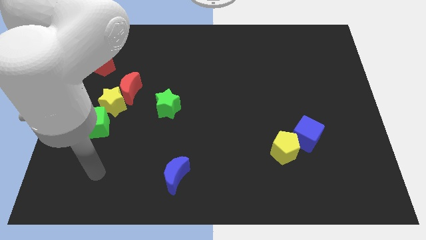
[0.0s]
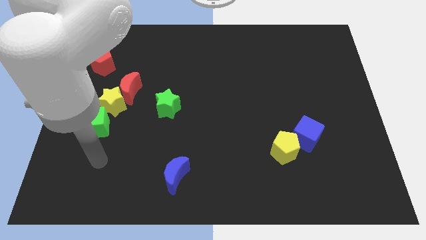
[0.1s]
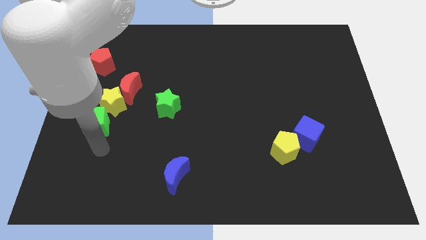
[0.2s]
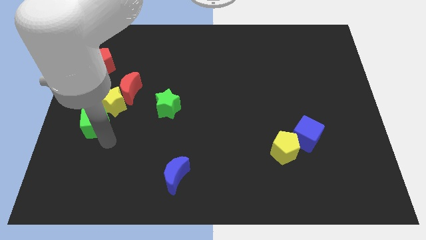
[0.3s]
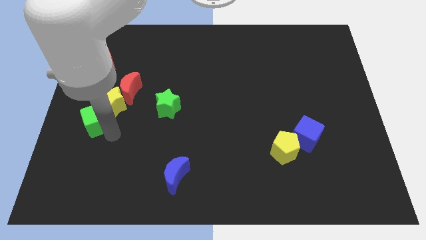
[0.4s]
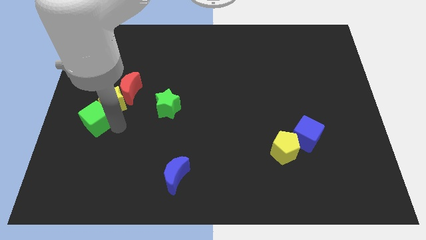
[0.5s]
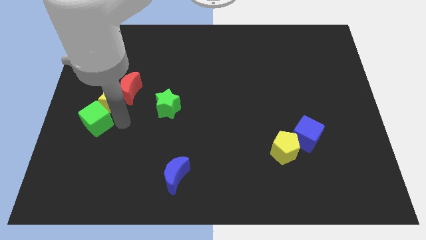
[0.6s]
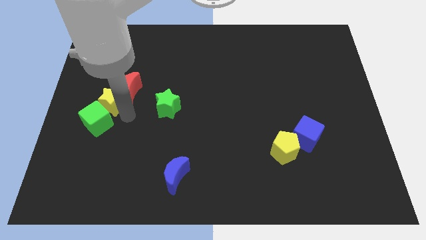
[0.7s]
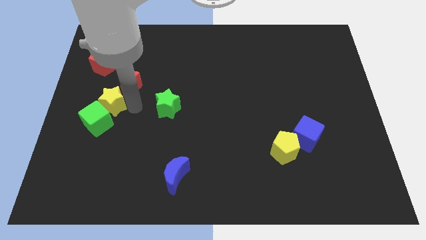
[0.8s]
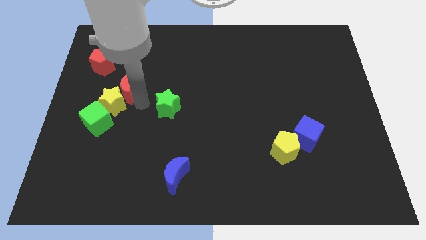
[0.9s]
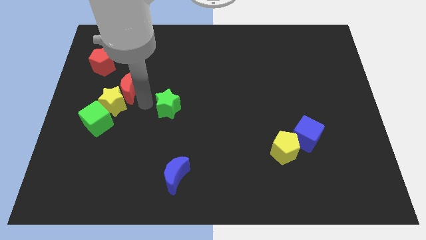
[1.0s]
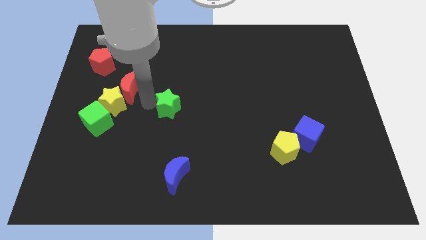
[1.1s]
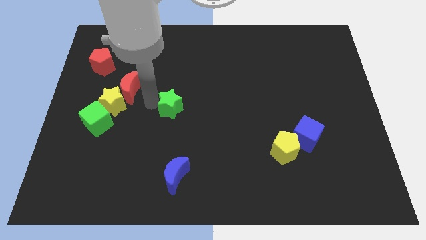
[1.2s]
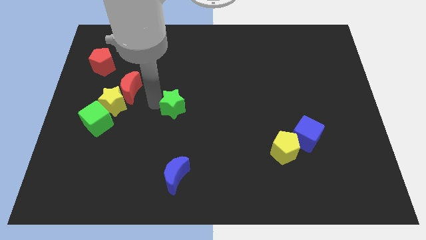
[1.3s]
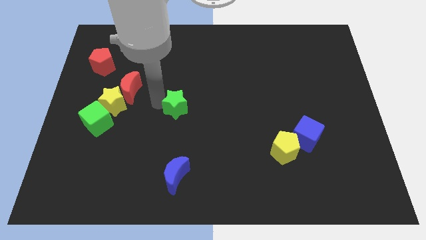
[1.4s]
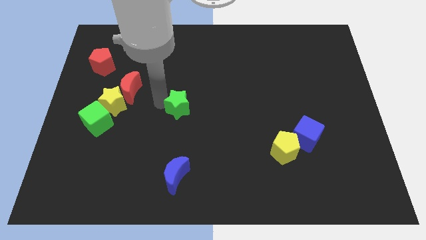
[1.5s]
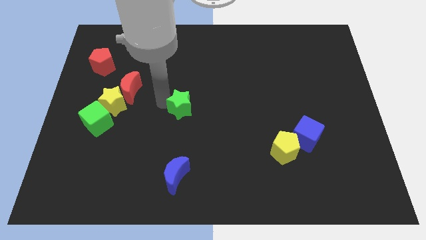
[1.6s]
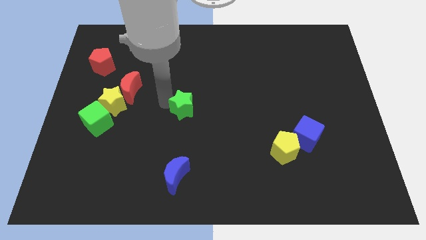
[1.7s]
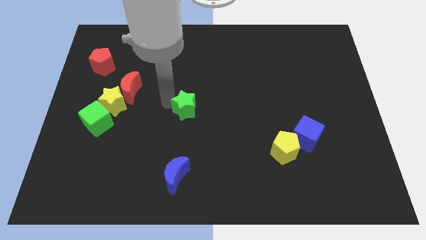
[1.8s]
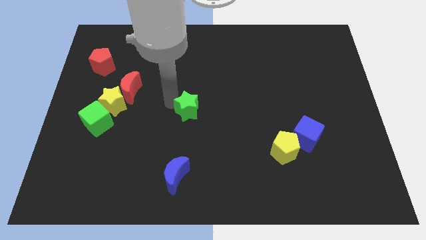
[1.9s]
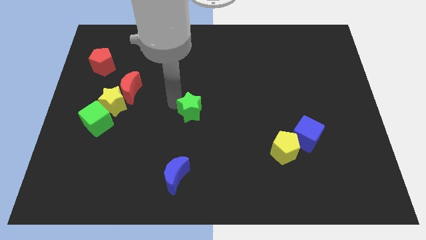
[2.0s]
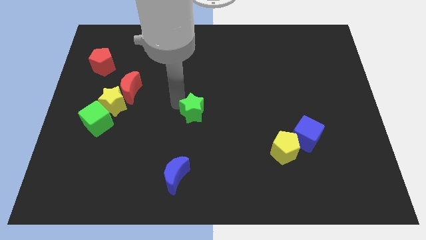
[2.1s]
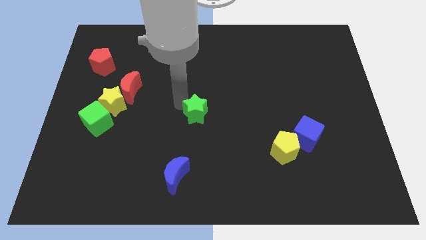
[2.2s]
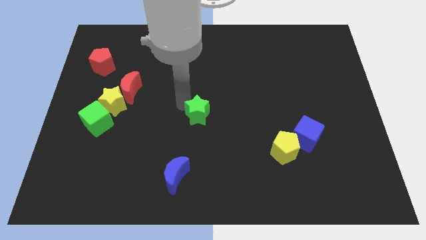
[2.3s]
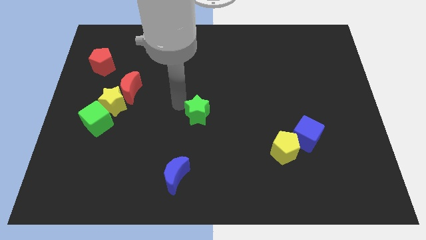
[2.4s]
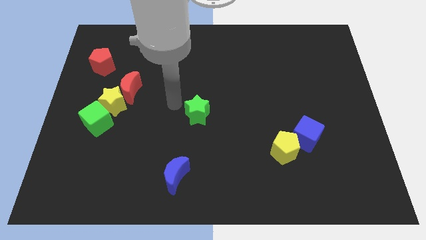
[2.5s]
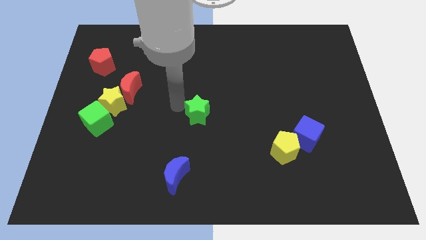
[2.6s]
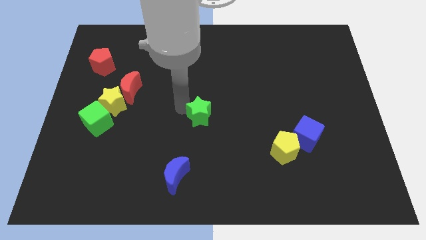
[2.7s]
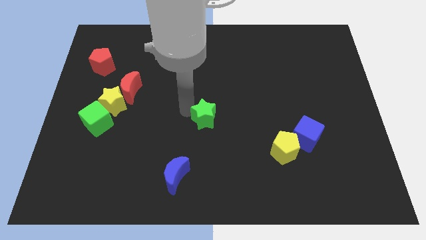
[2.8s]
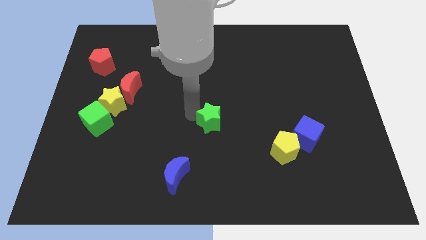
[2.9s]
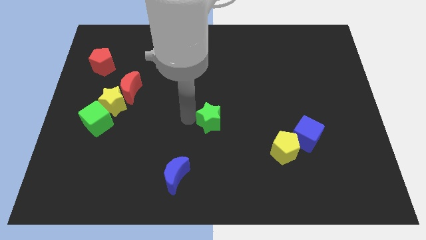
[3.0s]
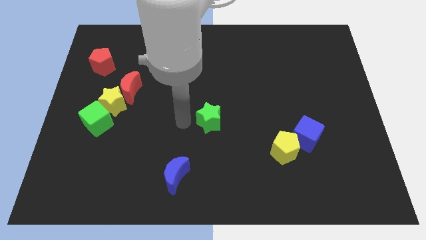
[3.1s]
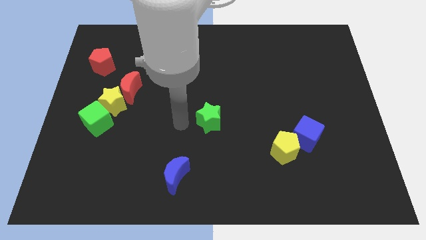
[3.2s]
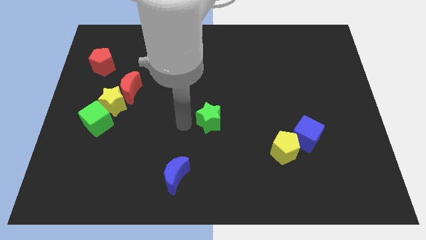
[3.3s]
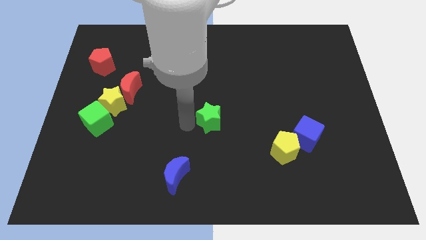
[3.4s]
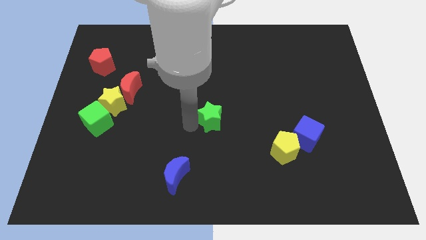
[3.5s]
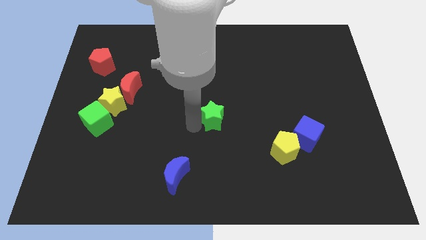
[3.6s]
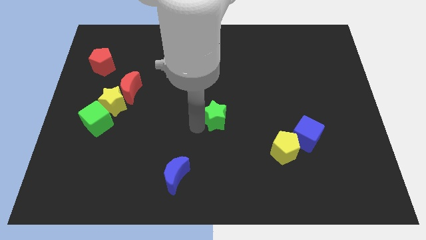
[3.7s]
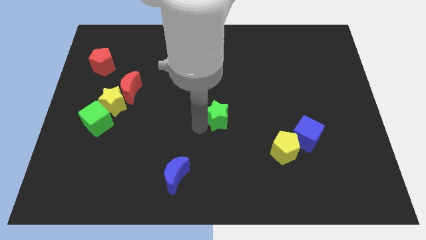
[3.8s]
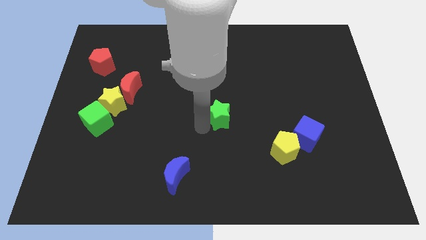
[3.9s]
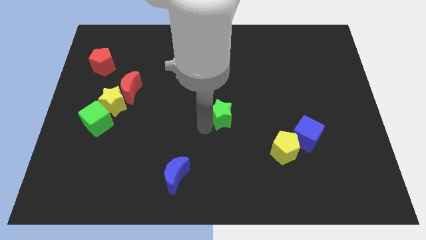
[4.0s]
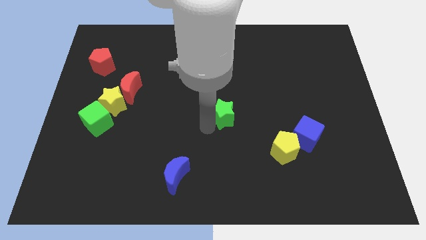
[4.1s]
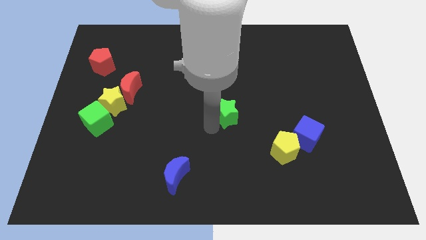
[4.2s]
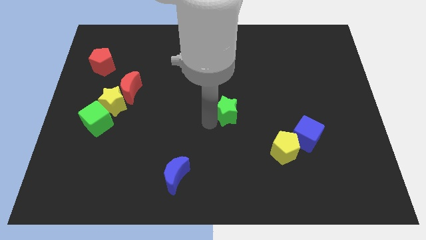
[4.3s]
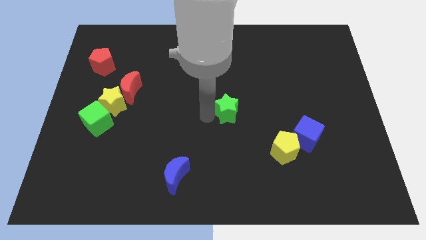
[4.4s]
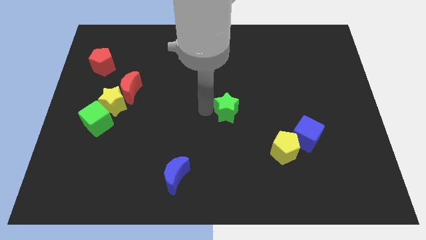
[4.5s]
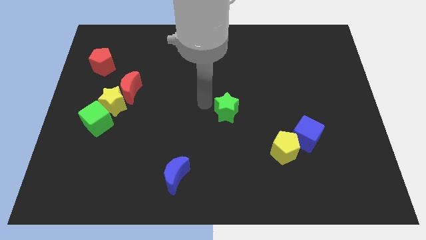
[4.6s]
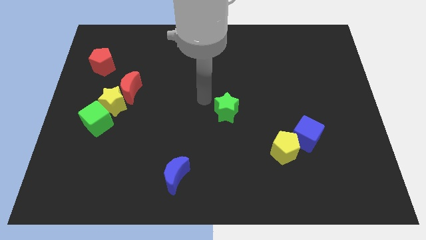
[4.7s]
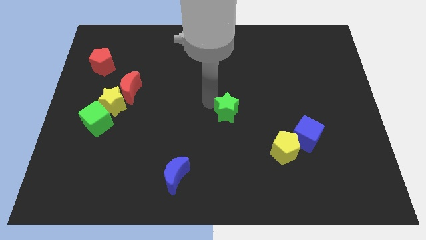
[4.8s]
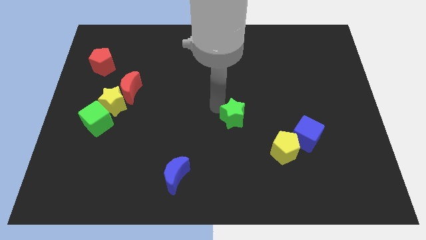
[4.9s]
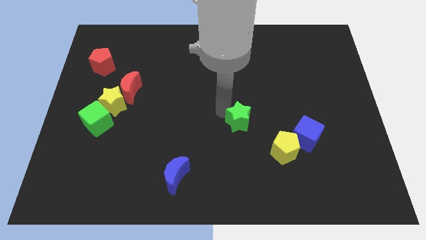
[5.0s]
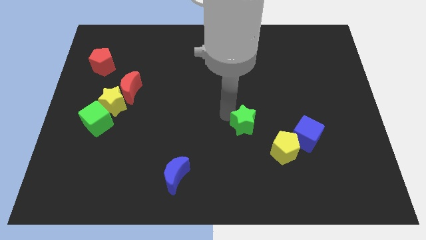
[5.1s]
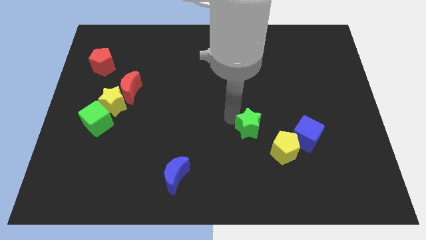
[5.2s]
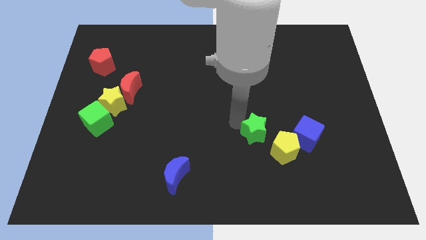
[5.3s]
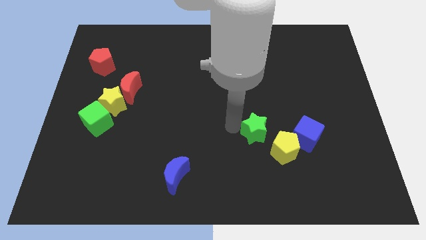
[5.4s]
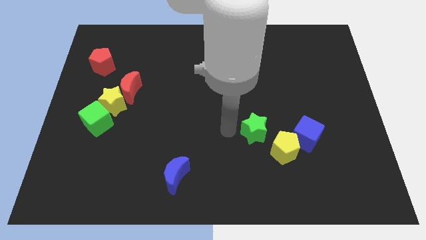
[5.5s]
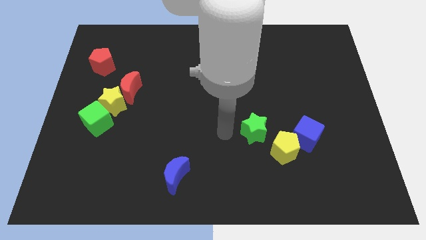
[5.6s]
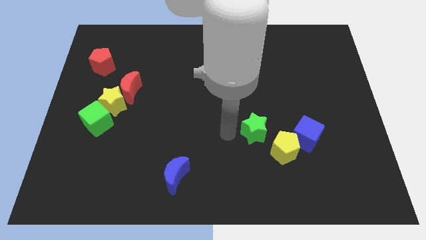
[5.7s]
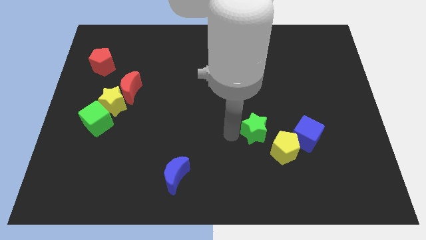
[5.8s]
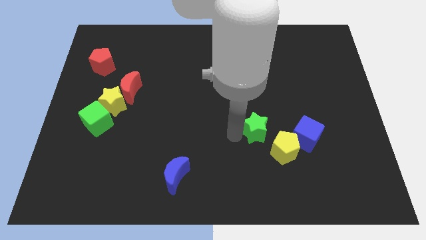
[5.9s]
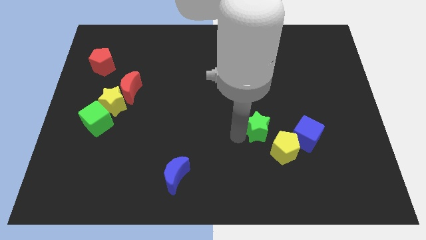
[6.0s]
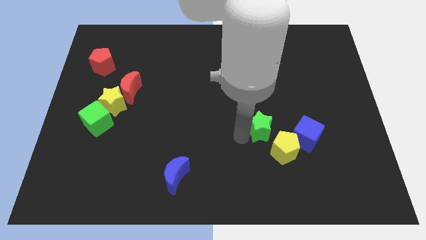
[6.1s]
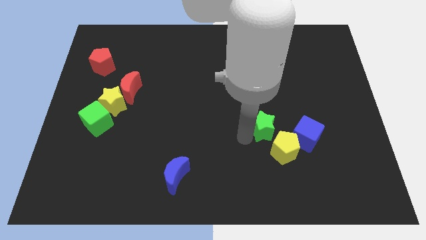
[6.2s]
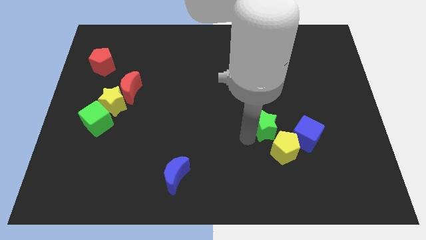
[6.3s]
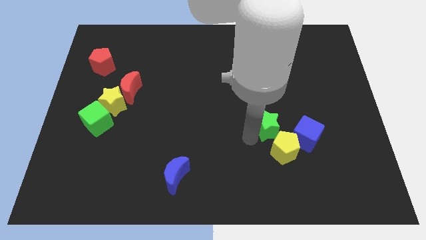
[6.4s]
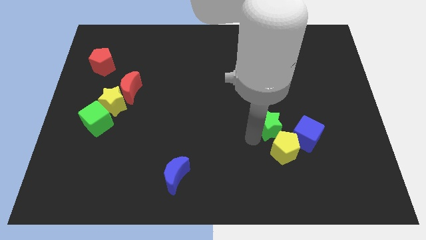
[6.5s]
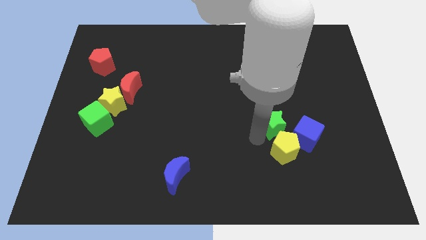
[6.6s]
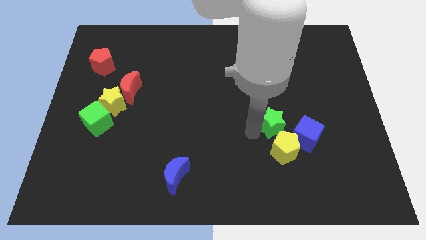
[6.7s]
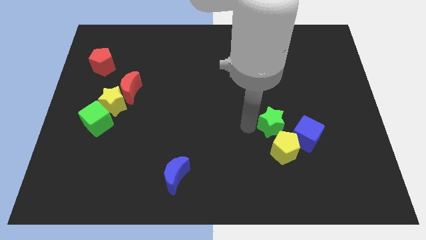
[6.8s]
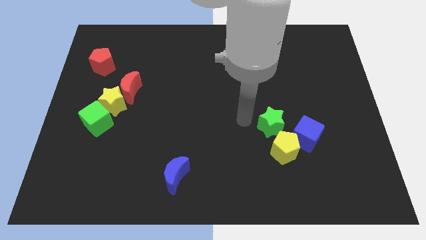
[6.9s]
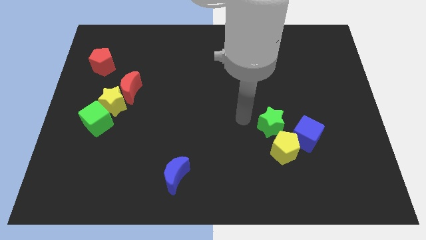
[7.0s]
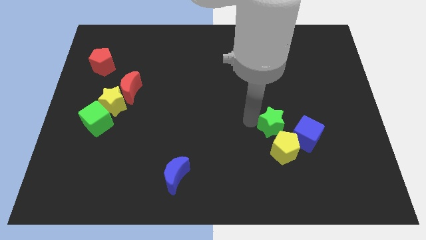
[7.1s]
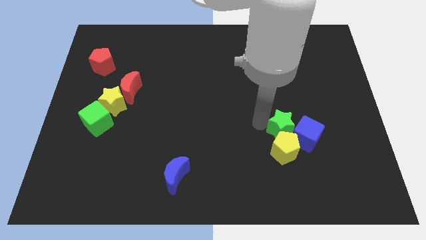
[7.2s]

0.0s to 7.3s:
put the green star next to the blue cube
